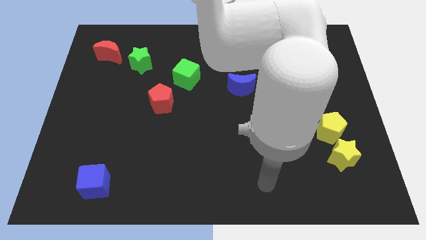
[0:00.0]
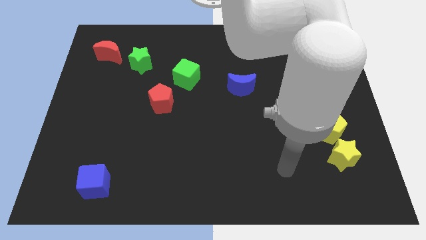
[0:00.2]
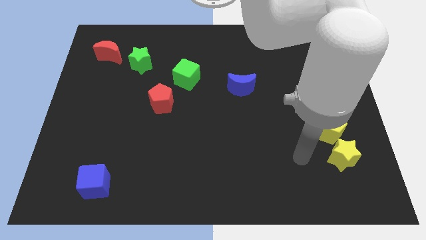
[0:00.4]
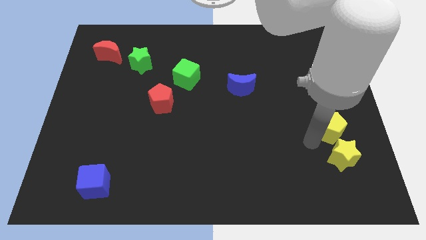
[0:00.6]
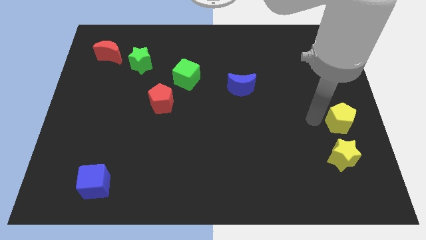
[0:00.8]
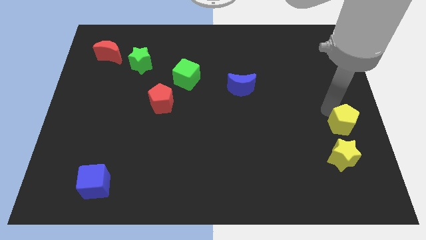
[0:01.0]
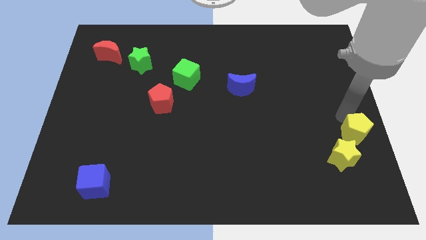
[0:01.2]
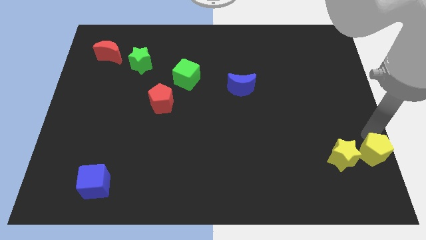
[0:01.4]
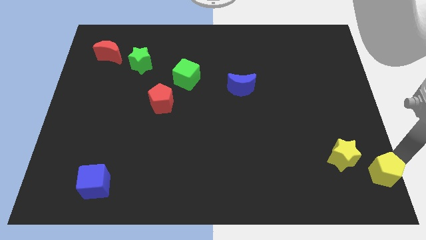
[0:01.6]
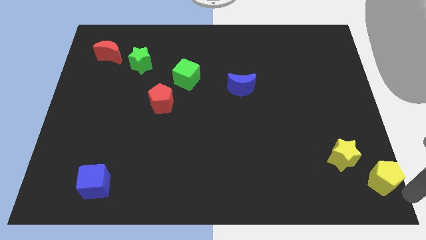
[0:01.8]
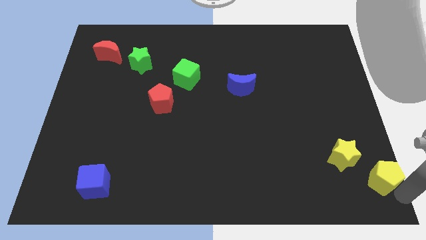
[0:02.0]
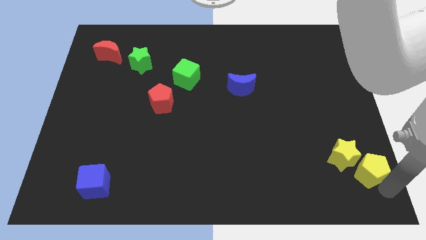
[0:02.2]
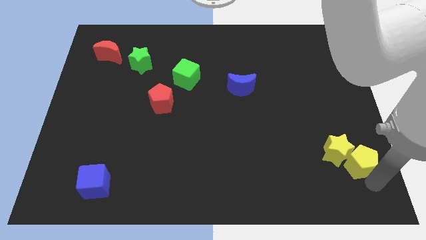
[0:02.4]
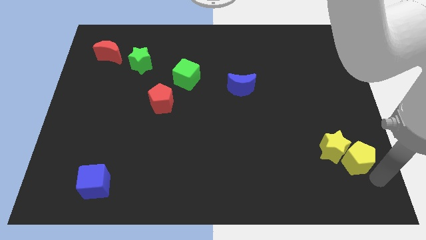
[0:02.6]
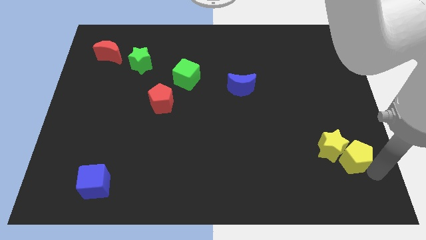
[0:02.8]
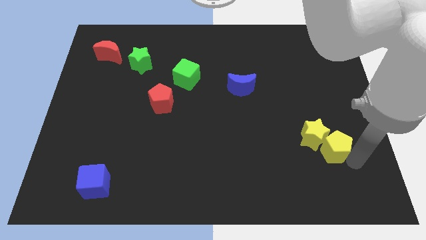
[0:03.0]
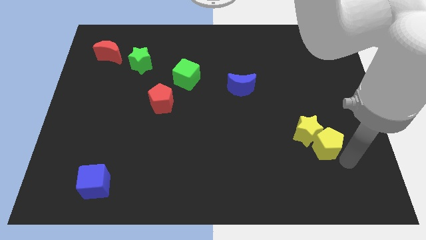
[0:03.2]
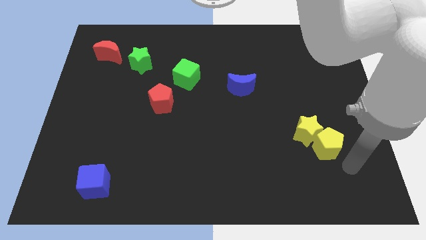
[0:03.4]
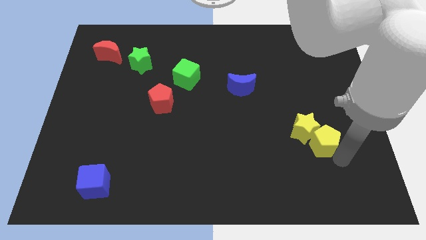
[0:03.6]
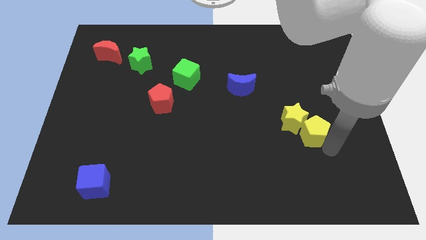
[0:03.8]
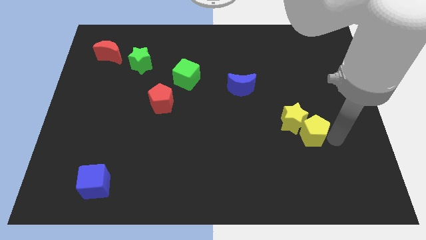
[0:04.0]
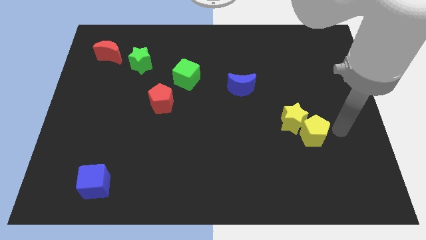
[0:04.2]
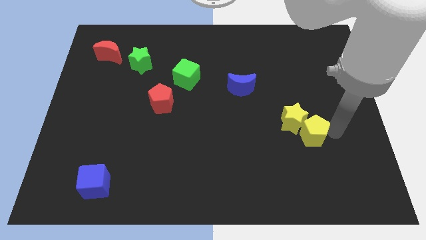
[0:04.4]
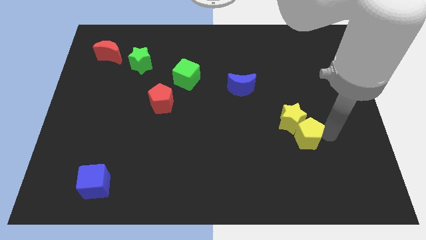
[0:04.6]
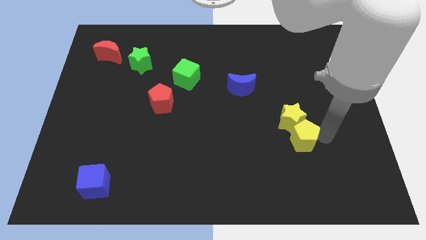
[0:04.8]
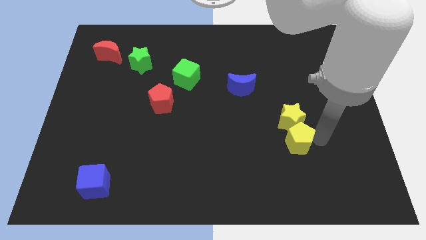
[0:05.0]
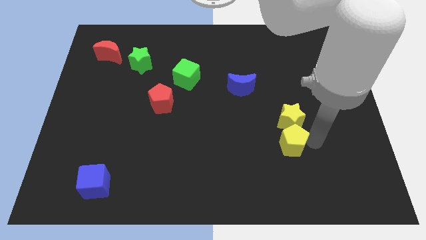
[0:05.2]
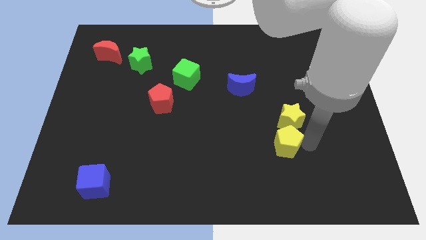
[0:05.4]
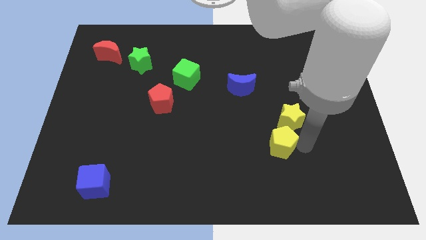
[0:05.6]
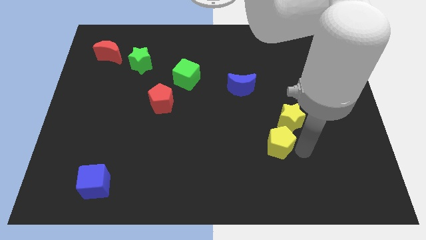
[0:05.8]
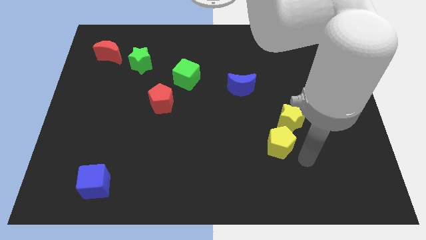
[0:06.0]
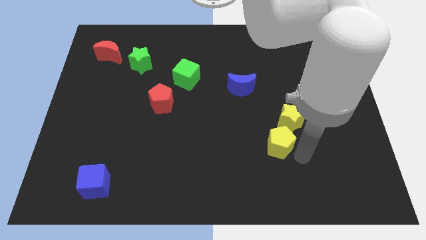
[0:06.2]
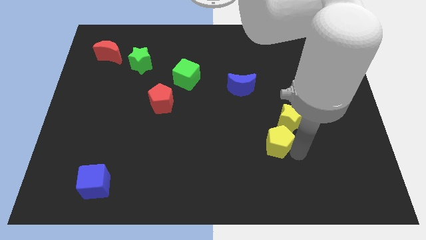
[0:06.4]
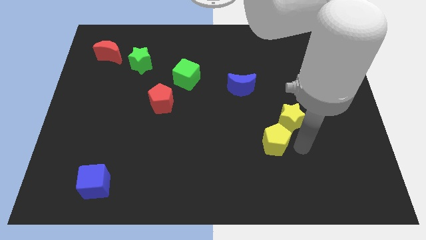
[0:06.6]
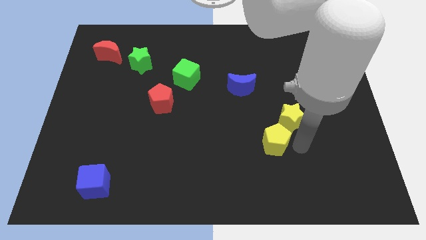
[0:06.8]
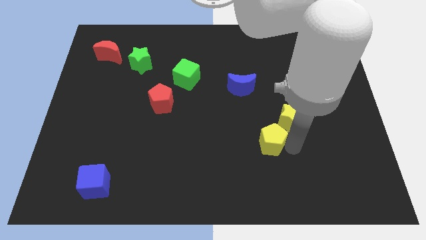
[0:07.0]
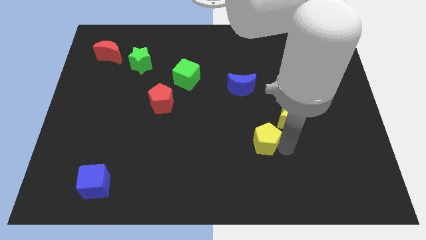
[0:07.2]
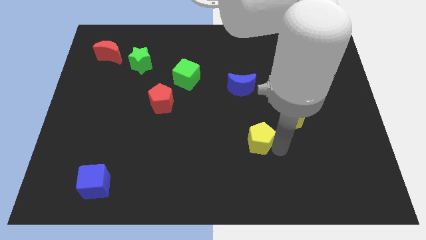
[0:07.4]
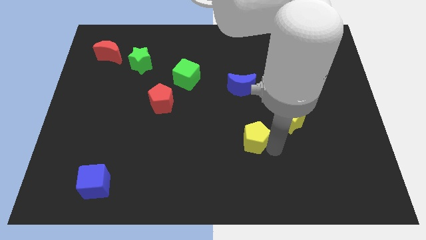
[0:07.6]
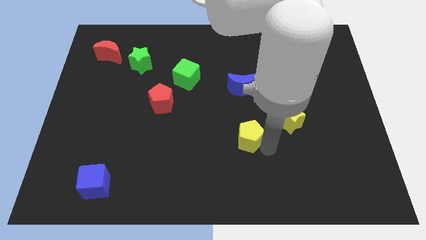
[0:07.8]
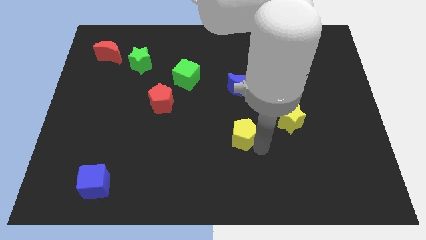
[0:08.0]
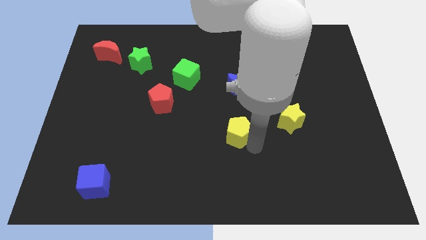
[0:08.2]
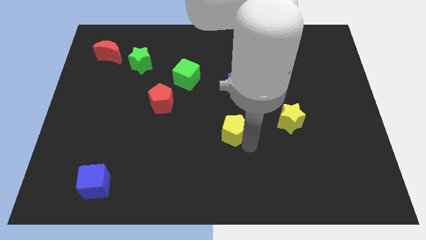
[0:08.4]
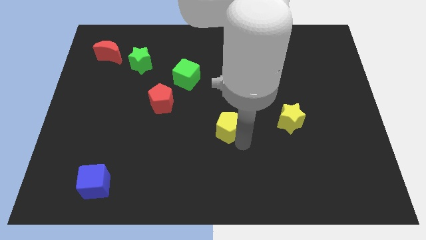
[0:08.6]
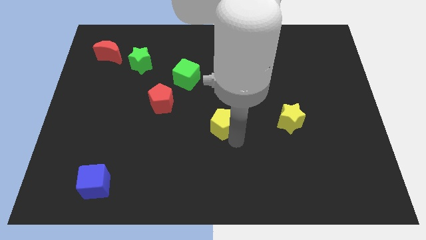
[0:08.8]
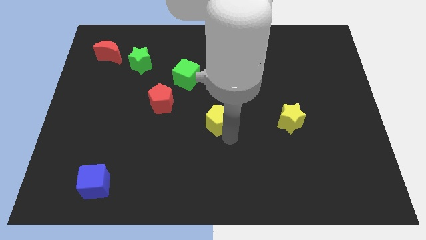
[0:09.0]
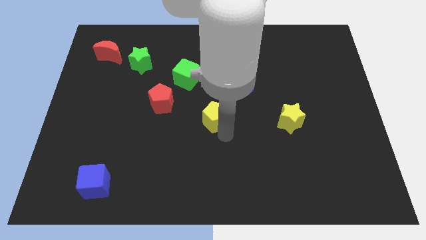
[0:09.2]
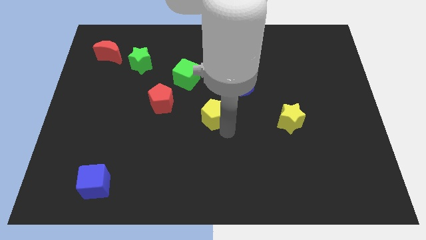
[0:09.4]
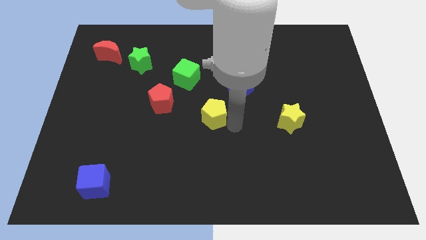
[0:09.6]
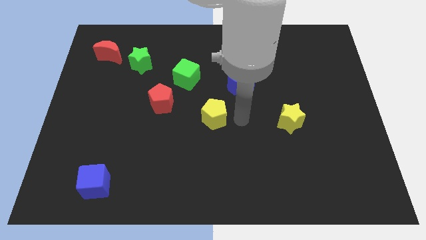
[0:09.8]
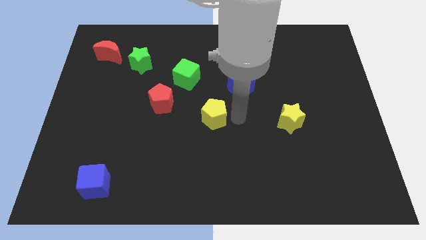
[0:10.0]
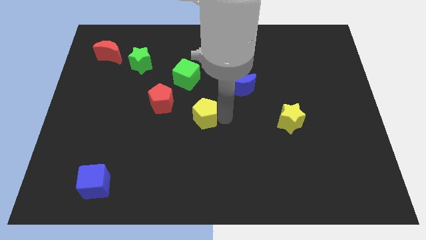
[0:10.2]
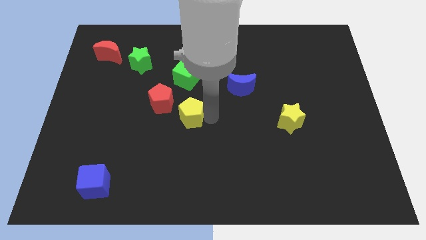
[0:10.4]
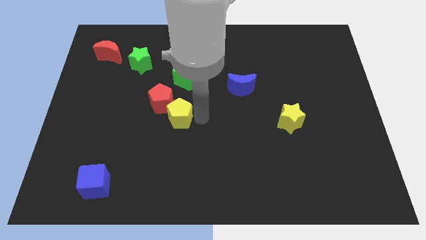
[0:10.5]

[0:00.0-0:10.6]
push the yellow pentagon towards the red pentagon

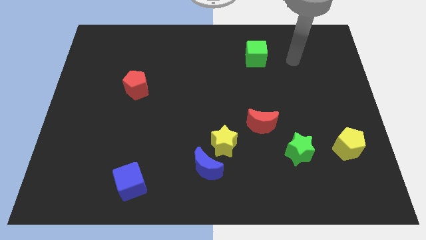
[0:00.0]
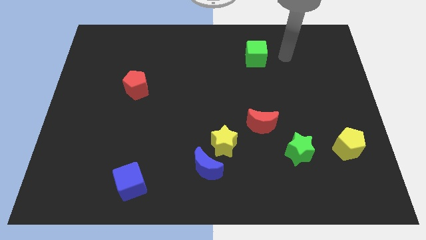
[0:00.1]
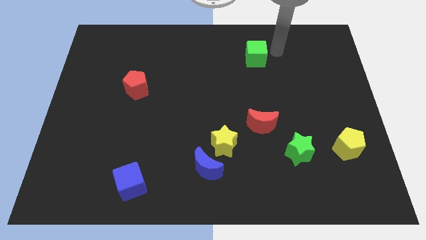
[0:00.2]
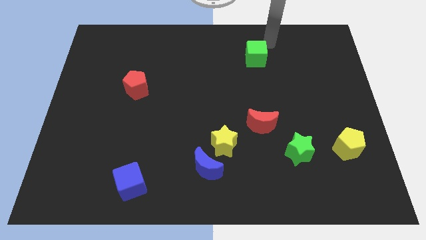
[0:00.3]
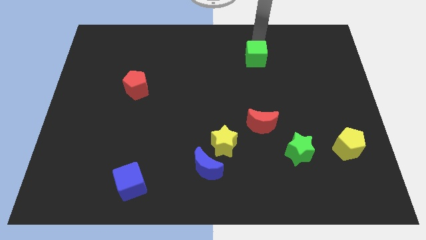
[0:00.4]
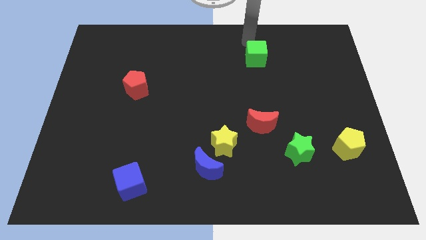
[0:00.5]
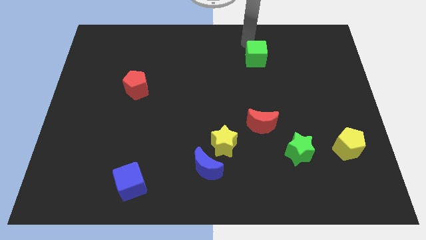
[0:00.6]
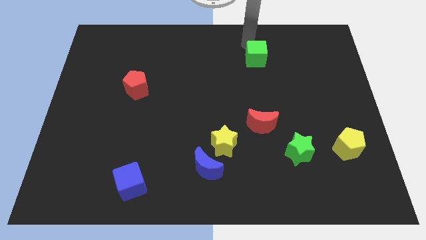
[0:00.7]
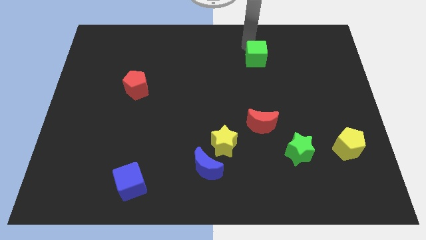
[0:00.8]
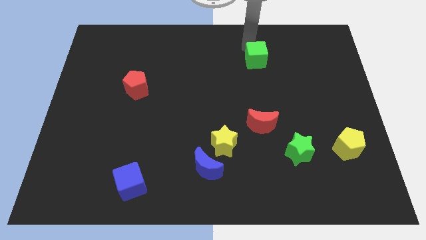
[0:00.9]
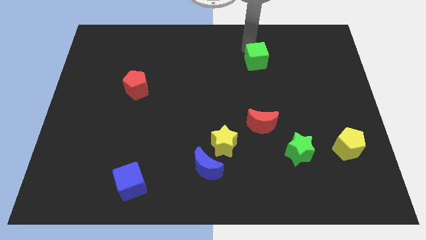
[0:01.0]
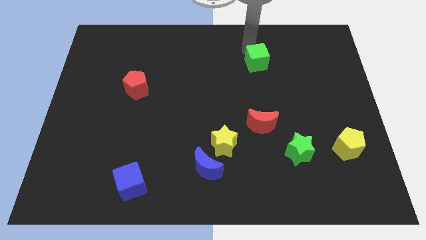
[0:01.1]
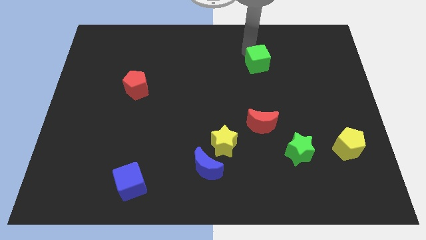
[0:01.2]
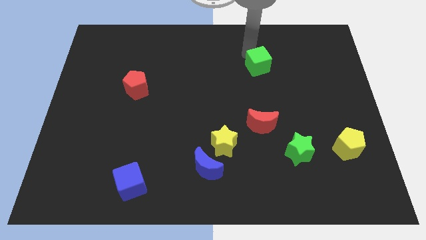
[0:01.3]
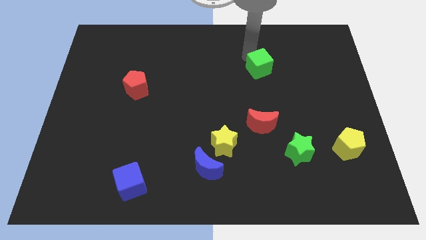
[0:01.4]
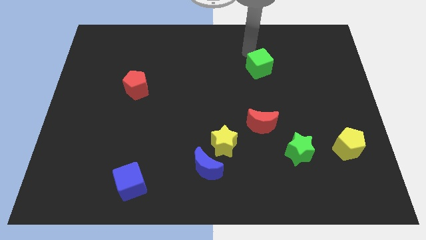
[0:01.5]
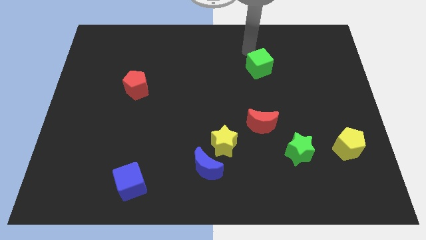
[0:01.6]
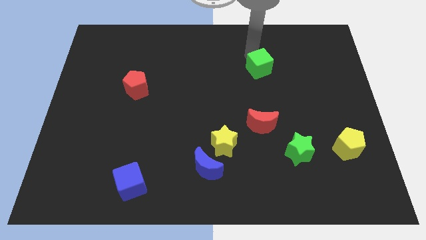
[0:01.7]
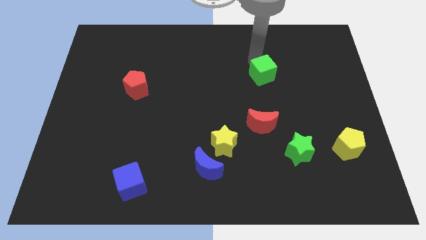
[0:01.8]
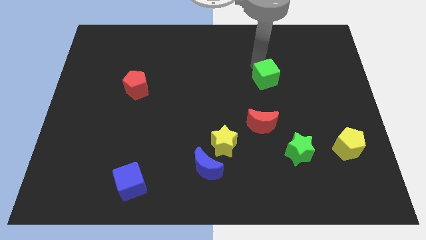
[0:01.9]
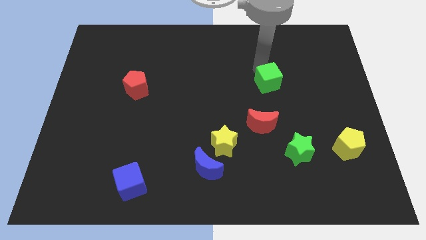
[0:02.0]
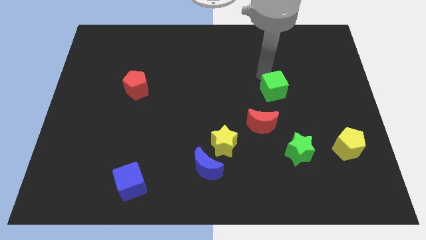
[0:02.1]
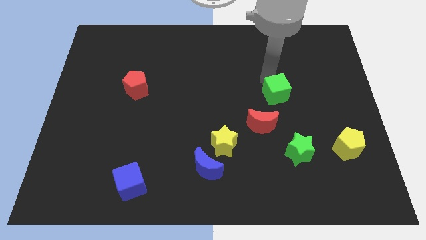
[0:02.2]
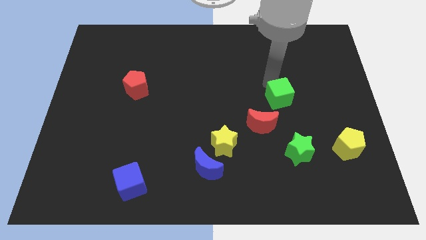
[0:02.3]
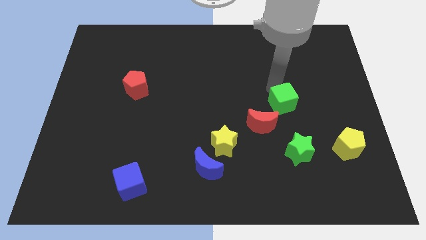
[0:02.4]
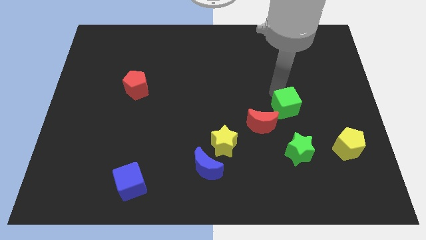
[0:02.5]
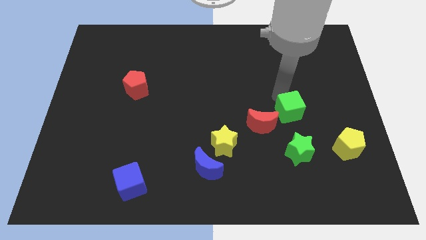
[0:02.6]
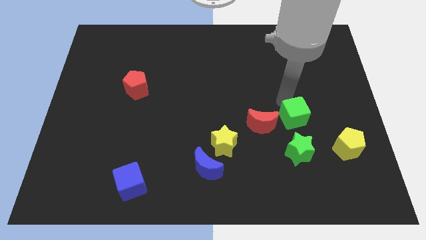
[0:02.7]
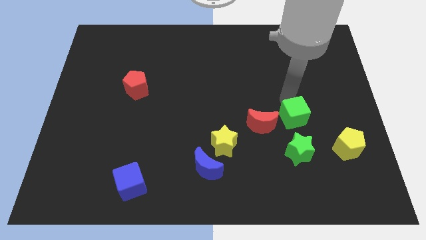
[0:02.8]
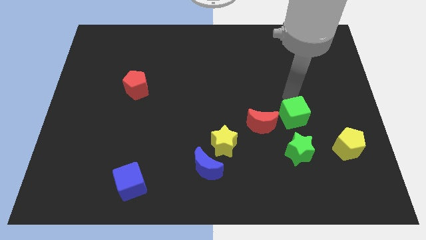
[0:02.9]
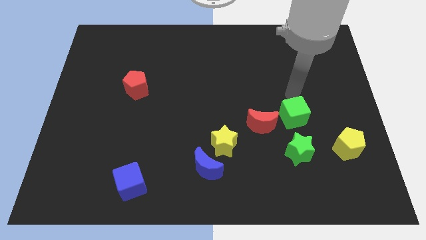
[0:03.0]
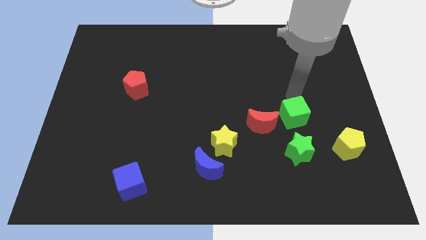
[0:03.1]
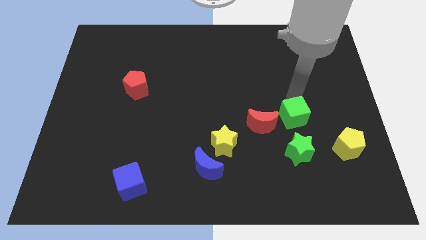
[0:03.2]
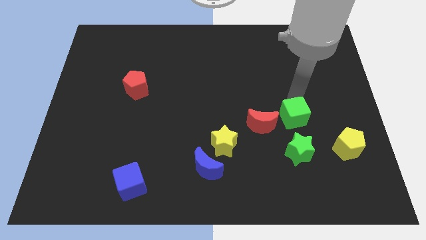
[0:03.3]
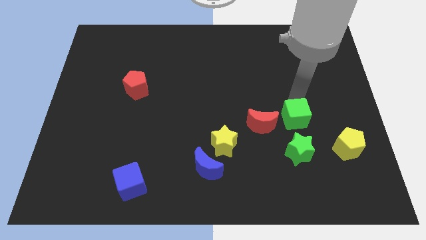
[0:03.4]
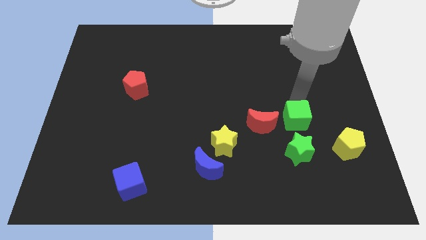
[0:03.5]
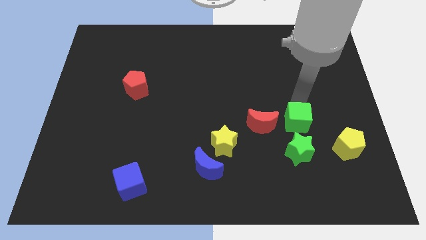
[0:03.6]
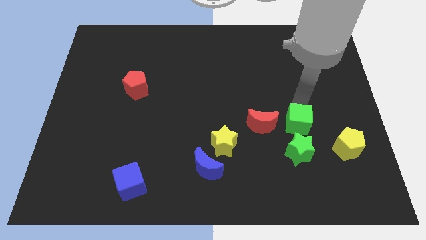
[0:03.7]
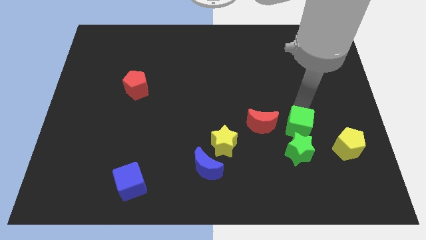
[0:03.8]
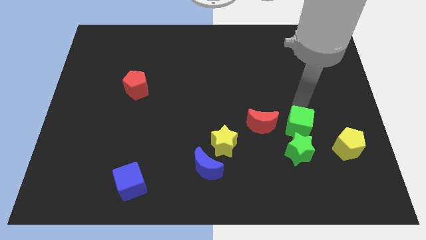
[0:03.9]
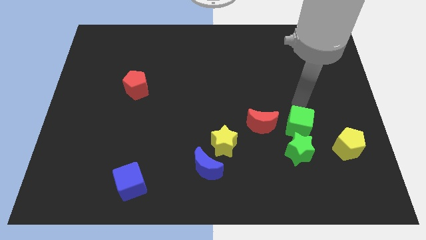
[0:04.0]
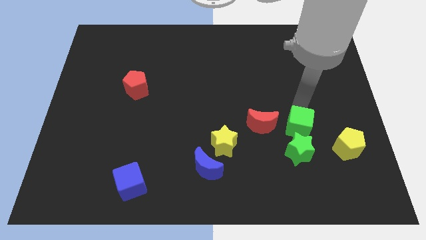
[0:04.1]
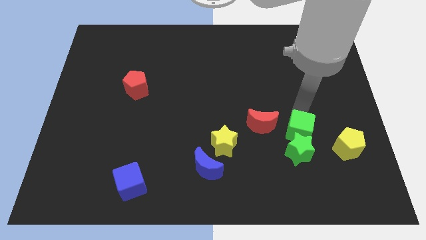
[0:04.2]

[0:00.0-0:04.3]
push the green cube to the green star
